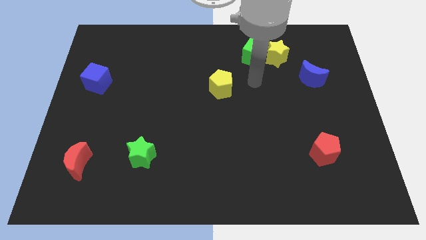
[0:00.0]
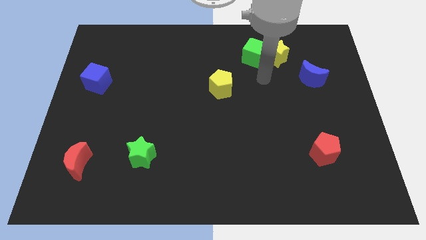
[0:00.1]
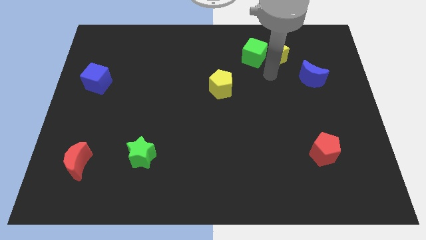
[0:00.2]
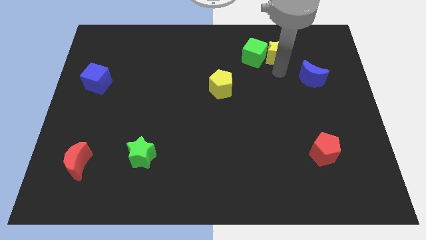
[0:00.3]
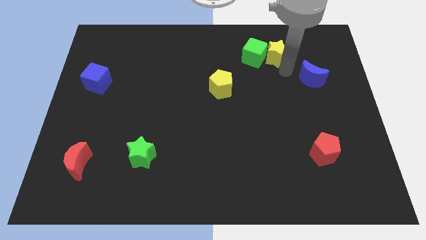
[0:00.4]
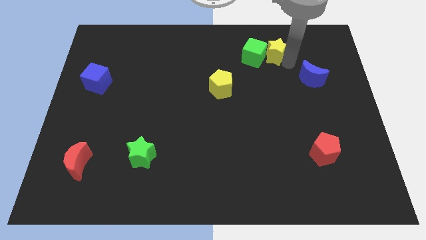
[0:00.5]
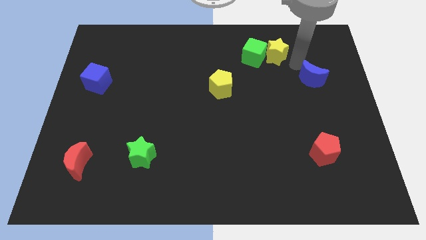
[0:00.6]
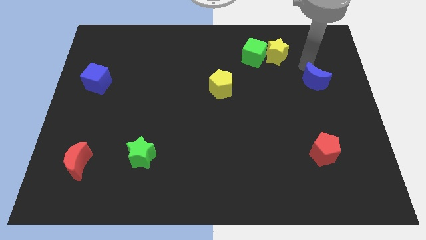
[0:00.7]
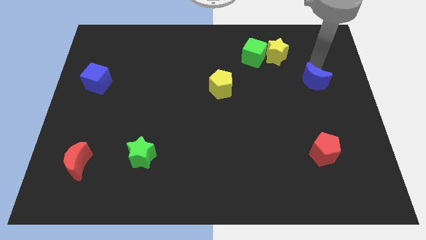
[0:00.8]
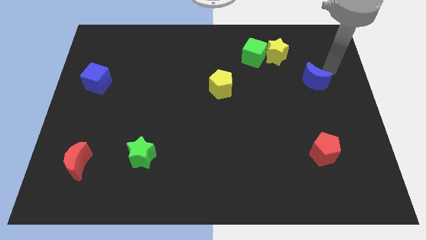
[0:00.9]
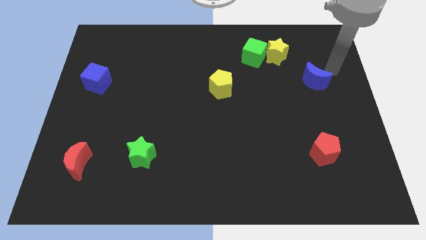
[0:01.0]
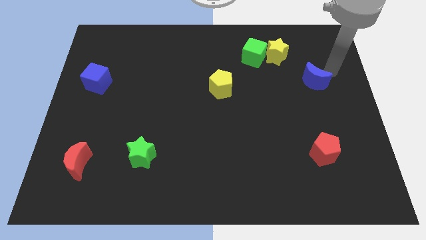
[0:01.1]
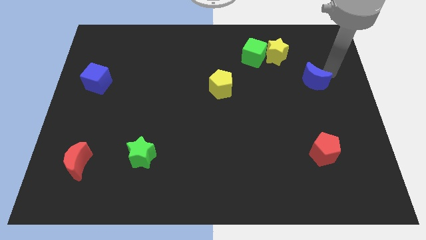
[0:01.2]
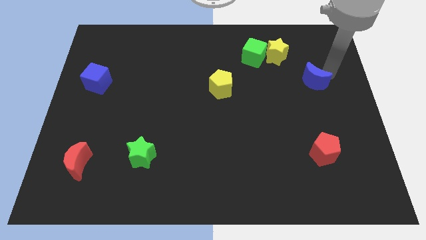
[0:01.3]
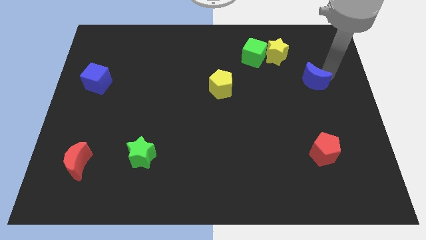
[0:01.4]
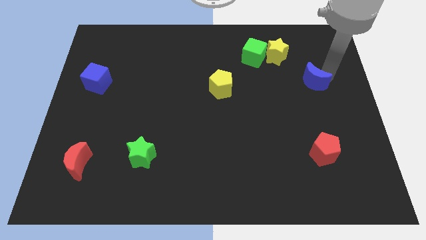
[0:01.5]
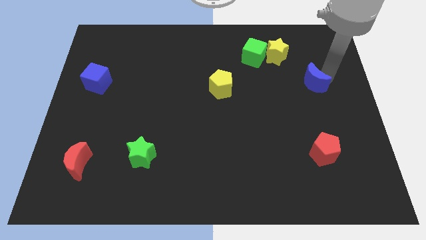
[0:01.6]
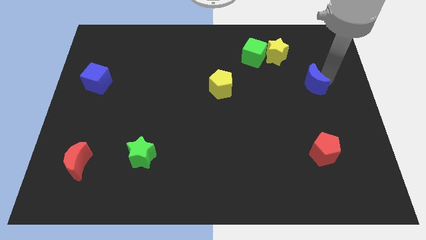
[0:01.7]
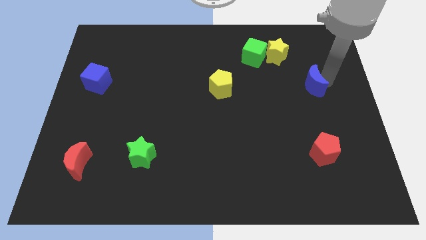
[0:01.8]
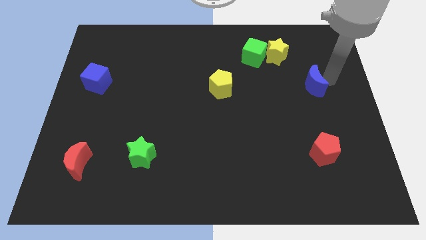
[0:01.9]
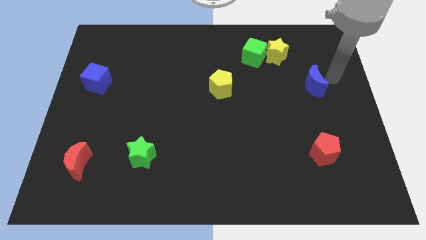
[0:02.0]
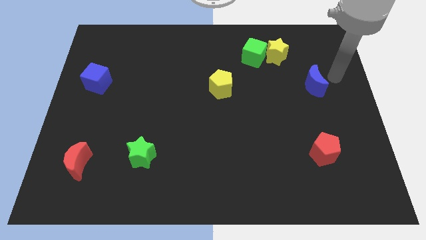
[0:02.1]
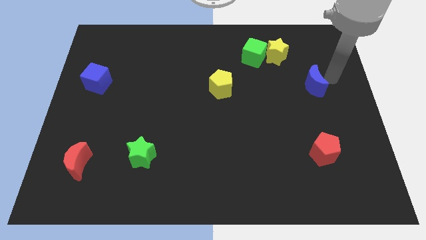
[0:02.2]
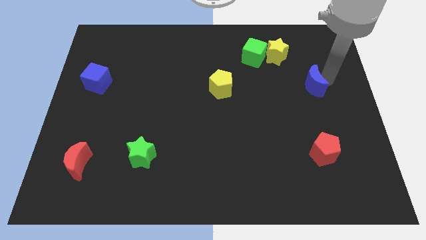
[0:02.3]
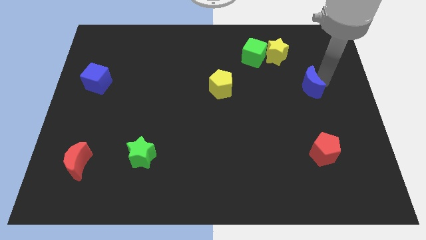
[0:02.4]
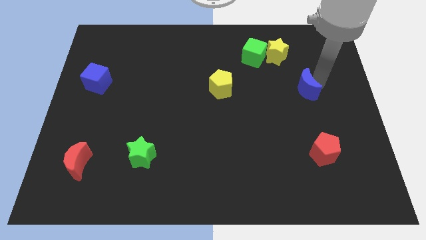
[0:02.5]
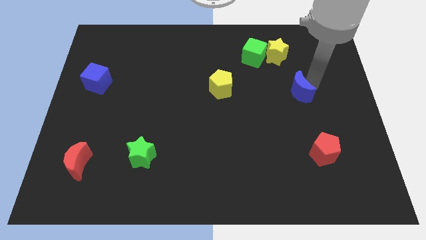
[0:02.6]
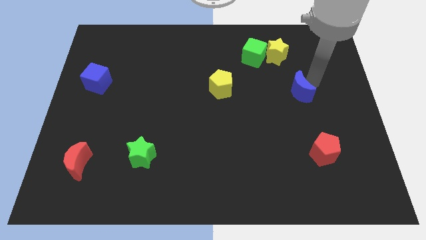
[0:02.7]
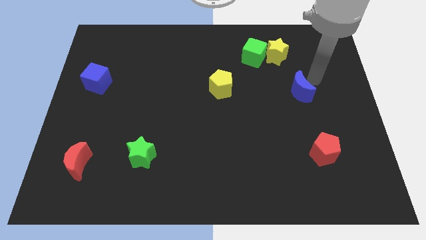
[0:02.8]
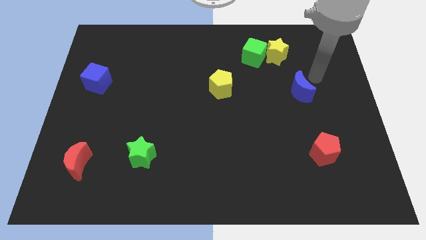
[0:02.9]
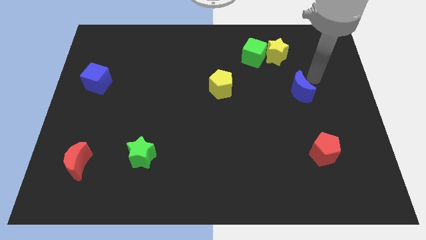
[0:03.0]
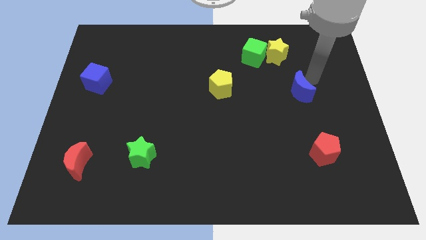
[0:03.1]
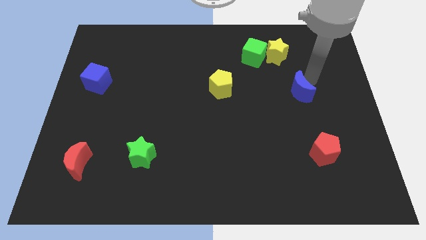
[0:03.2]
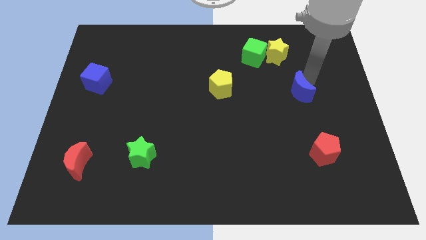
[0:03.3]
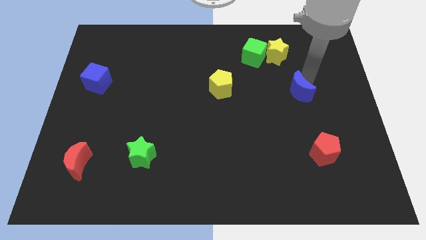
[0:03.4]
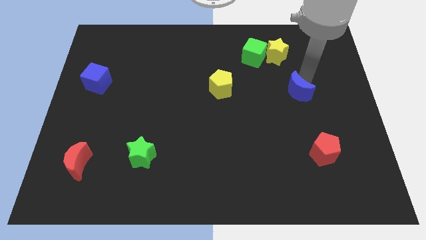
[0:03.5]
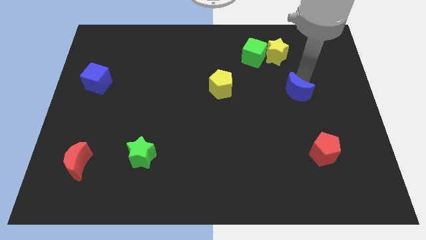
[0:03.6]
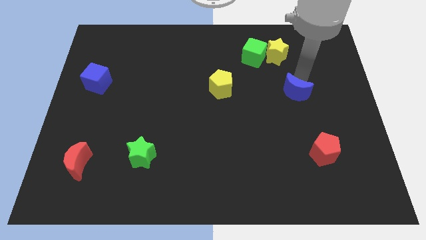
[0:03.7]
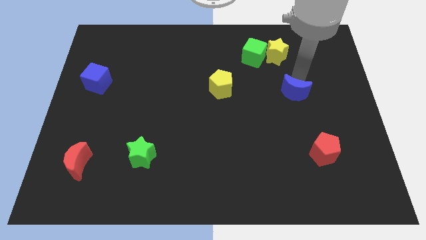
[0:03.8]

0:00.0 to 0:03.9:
slightly push the blue moon down and left

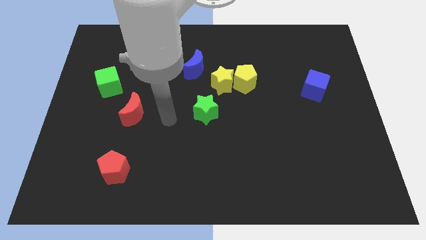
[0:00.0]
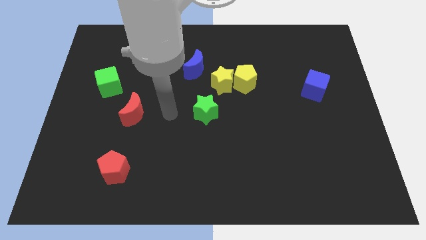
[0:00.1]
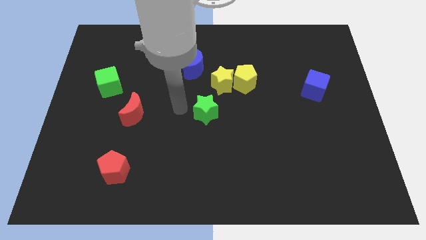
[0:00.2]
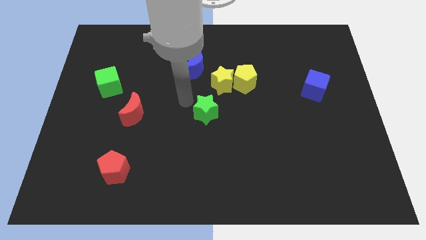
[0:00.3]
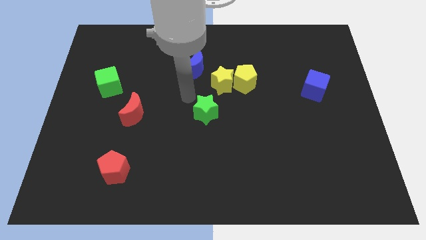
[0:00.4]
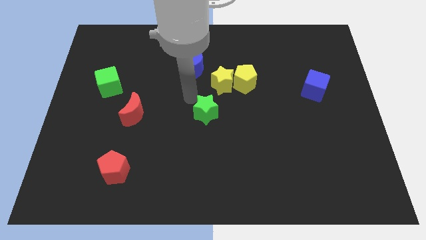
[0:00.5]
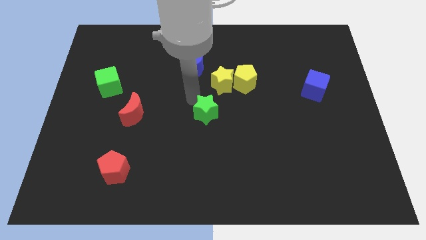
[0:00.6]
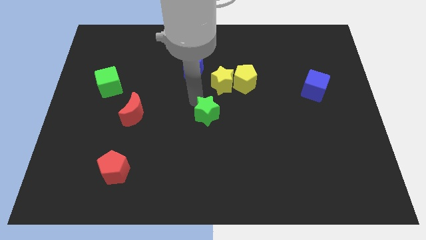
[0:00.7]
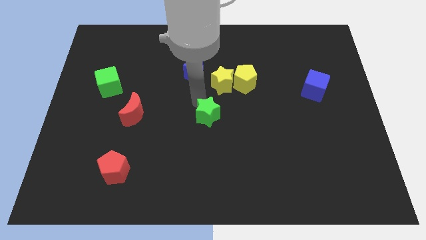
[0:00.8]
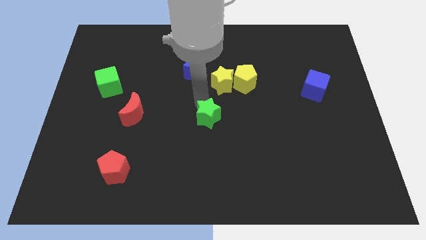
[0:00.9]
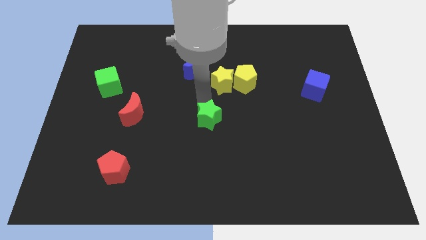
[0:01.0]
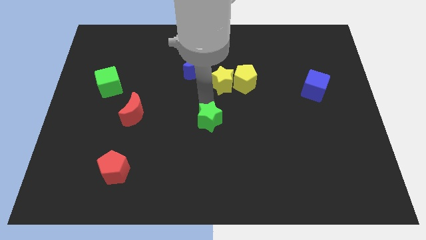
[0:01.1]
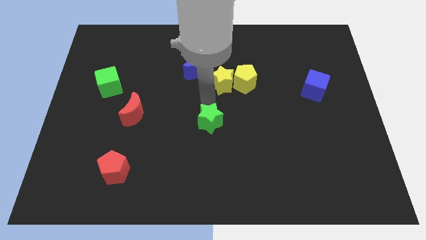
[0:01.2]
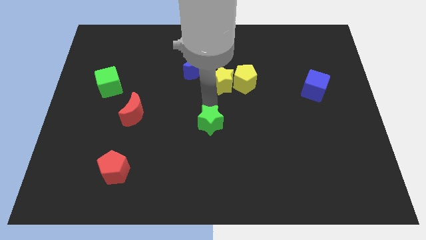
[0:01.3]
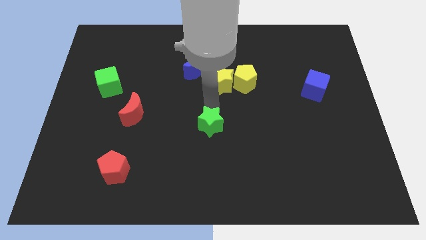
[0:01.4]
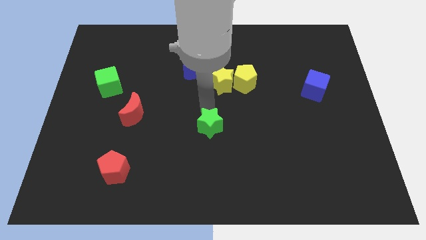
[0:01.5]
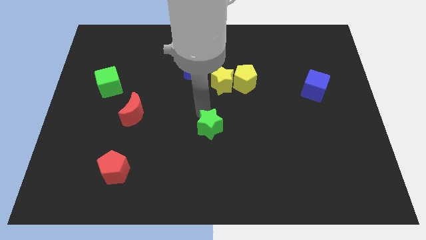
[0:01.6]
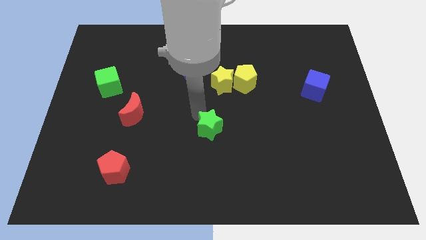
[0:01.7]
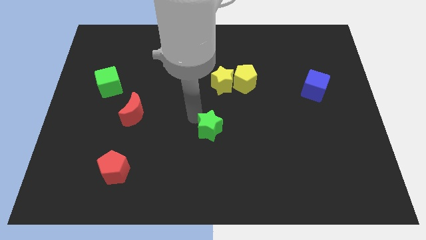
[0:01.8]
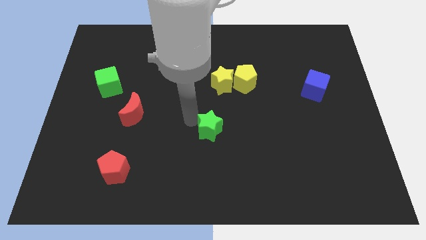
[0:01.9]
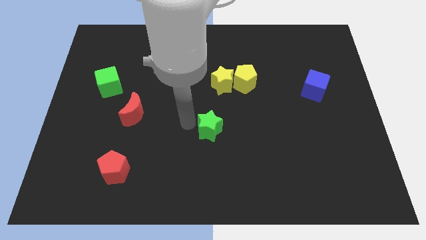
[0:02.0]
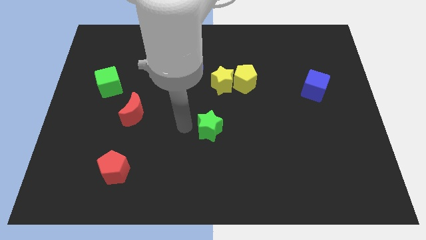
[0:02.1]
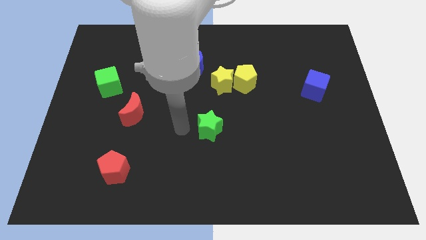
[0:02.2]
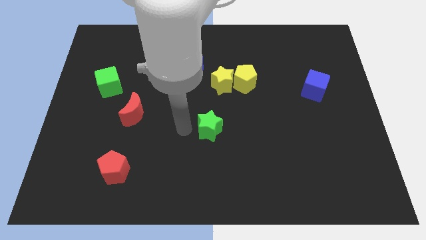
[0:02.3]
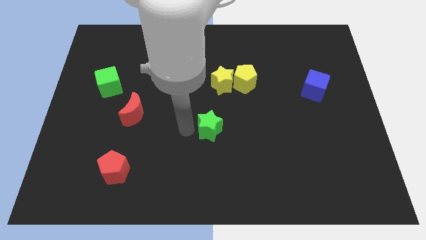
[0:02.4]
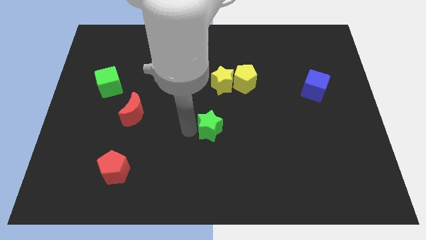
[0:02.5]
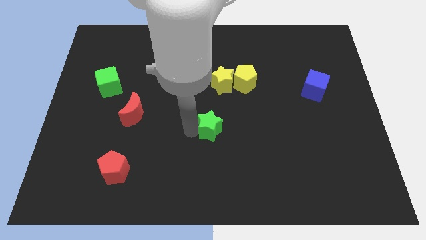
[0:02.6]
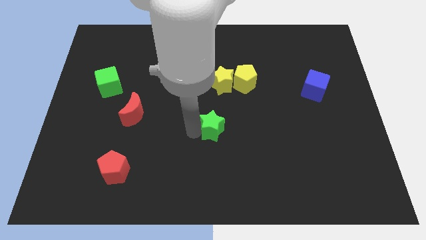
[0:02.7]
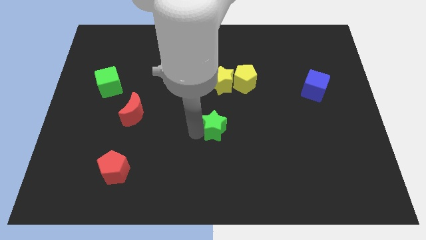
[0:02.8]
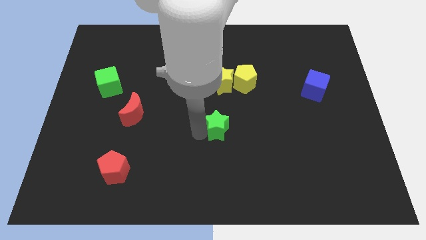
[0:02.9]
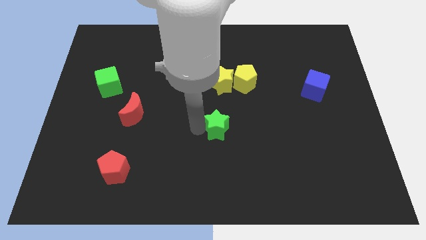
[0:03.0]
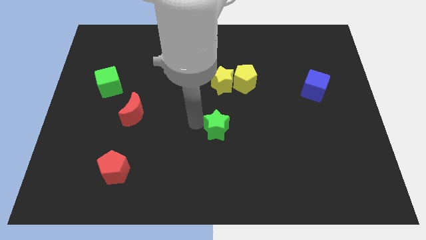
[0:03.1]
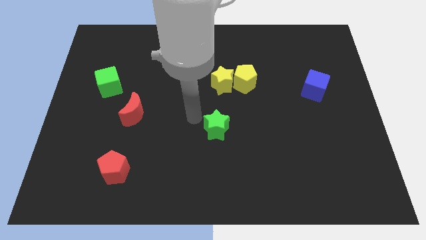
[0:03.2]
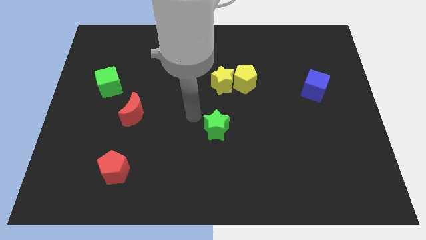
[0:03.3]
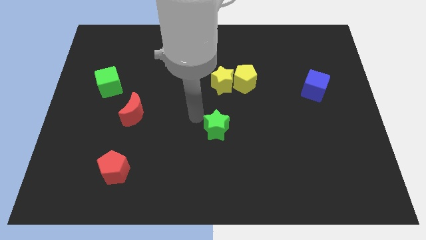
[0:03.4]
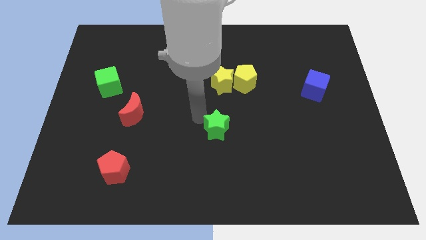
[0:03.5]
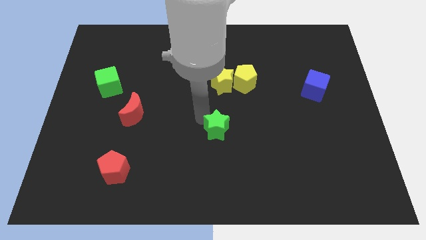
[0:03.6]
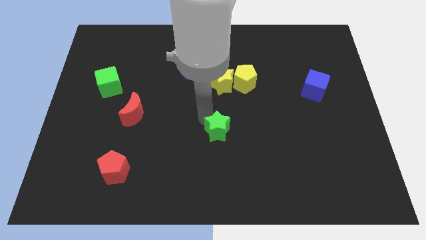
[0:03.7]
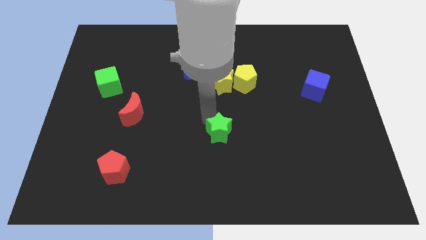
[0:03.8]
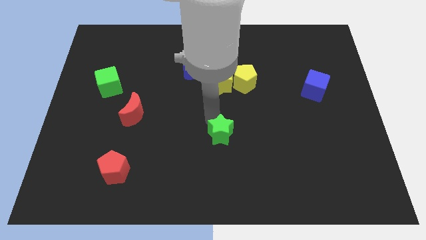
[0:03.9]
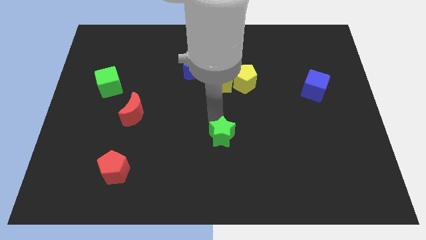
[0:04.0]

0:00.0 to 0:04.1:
push the green star a bit downwards and to the right diagonally
